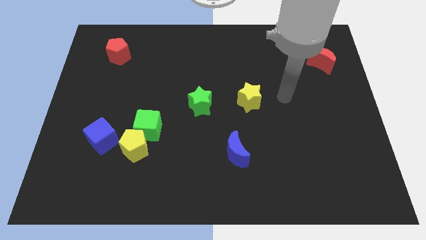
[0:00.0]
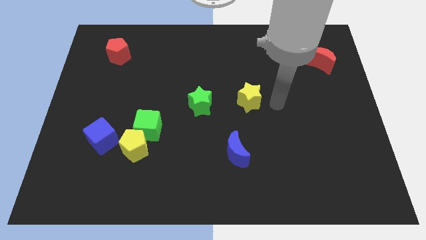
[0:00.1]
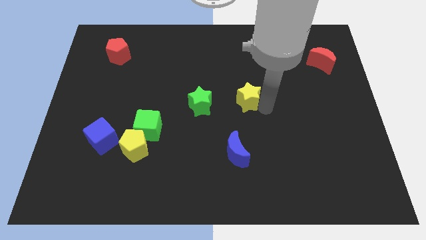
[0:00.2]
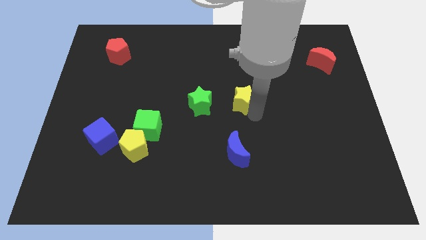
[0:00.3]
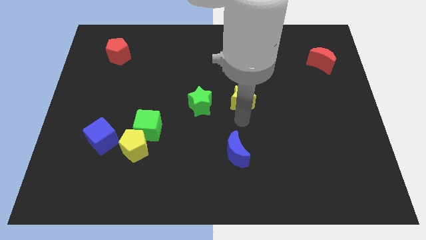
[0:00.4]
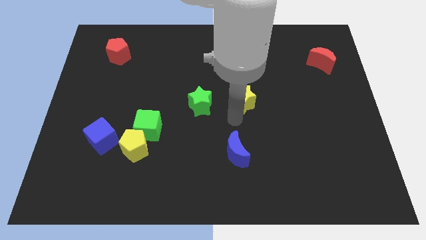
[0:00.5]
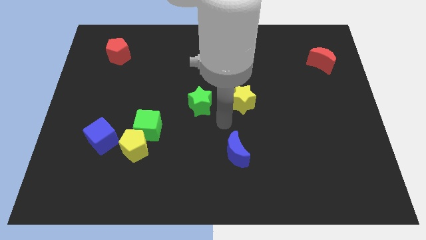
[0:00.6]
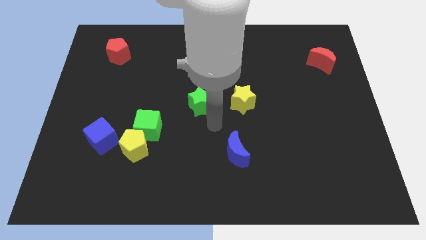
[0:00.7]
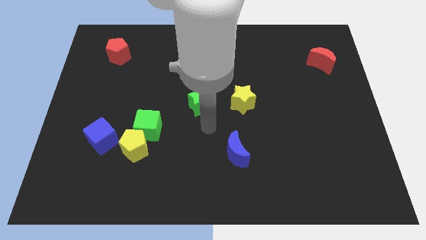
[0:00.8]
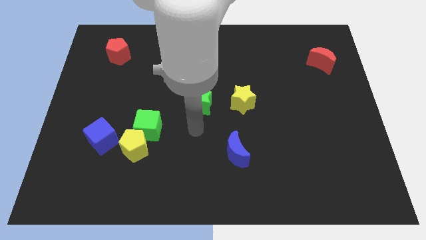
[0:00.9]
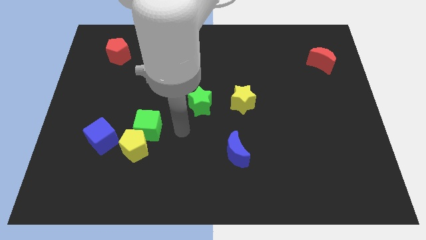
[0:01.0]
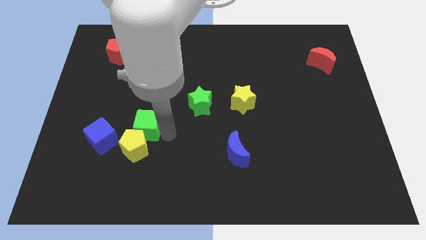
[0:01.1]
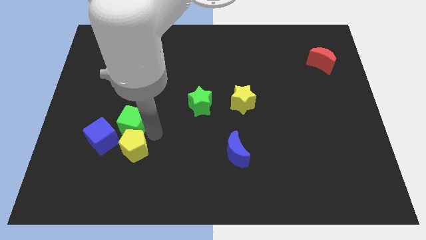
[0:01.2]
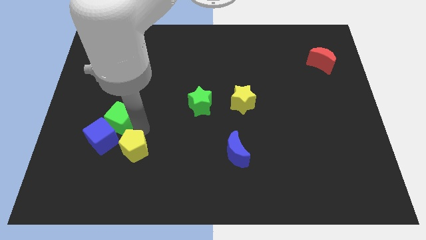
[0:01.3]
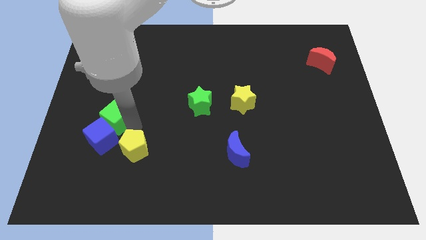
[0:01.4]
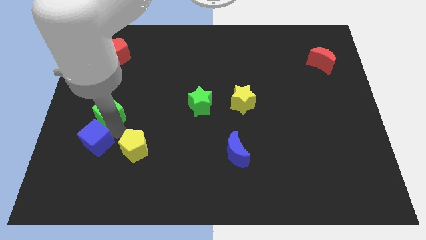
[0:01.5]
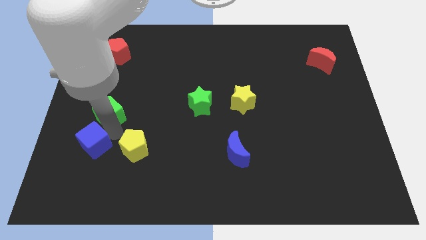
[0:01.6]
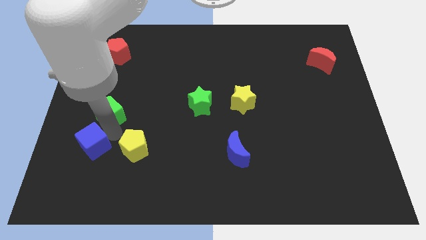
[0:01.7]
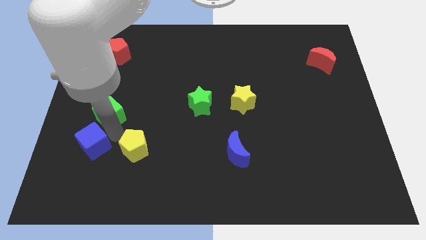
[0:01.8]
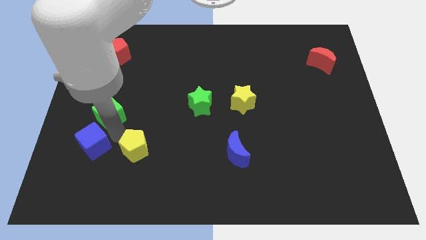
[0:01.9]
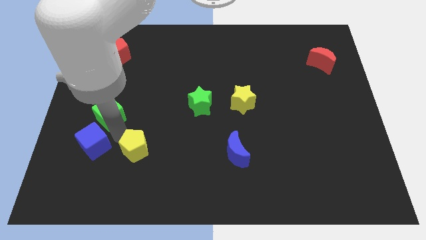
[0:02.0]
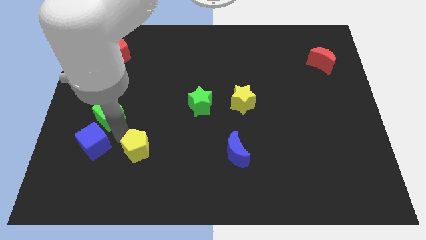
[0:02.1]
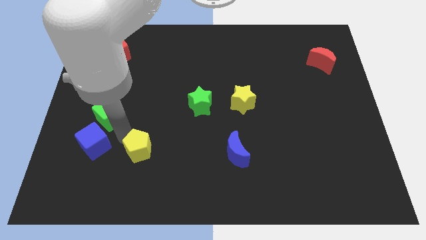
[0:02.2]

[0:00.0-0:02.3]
move the yellow pentagon away from the green cube and blue cube

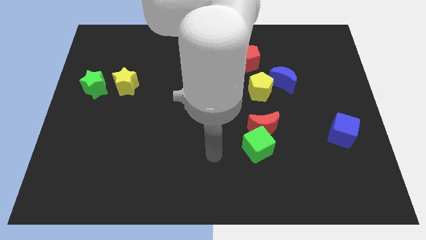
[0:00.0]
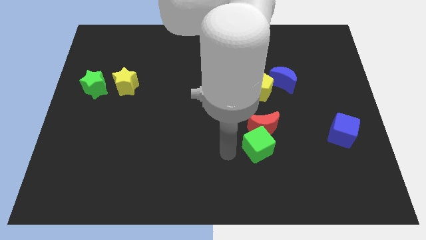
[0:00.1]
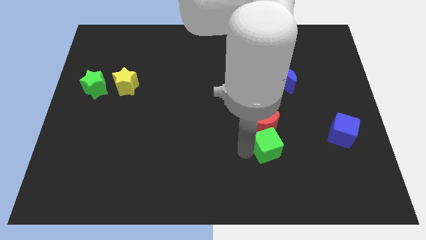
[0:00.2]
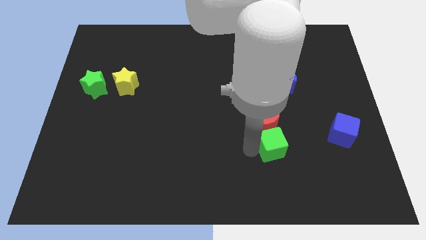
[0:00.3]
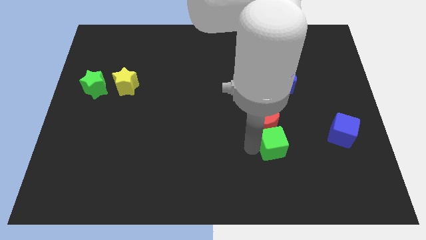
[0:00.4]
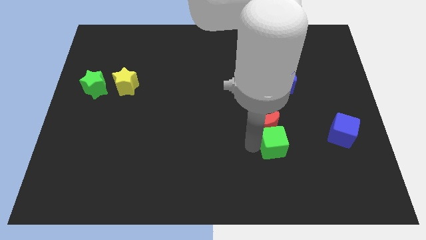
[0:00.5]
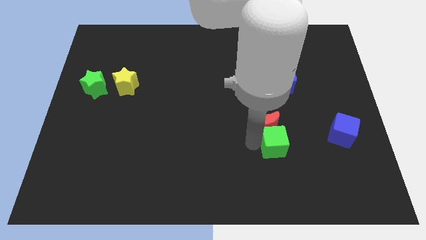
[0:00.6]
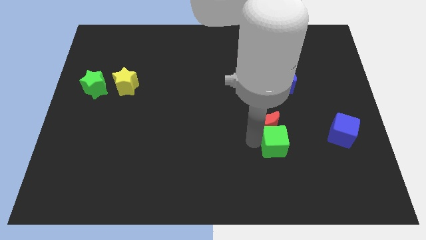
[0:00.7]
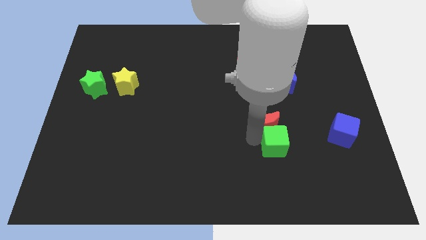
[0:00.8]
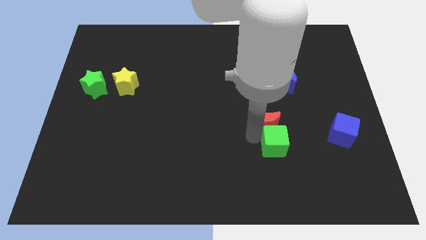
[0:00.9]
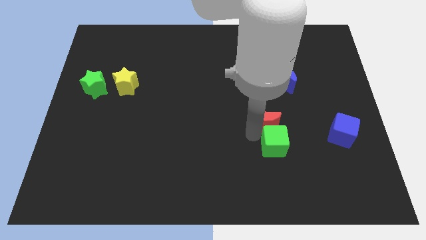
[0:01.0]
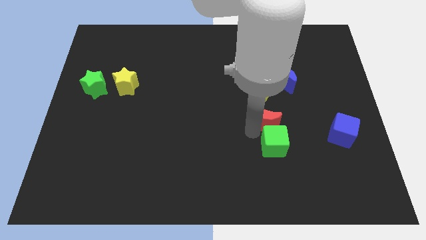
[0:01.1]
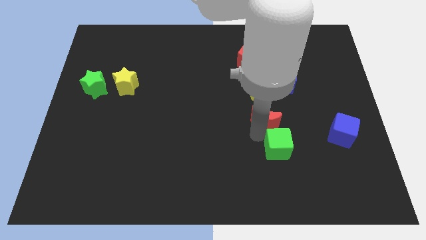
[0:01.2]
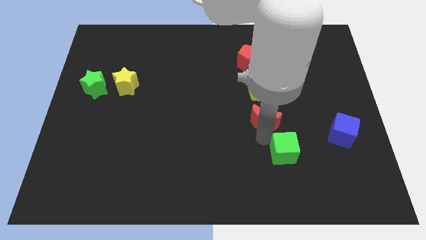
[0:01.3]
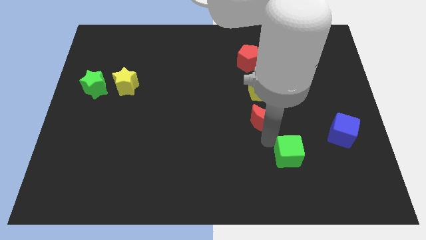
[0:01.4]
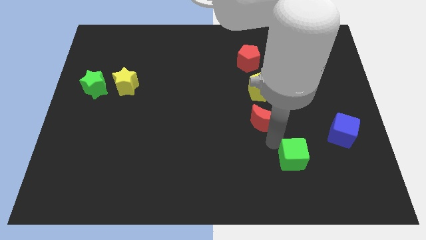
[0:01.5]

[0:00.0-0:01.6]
pull the red moon apart from the green cube

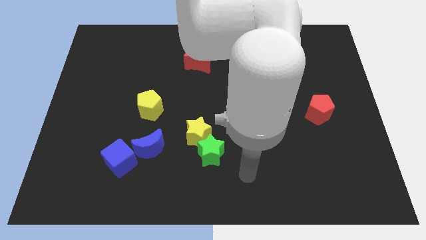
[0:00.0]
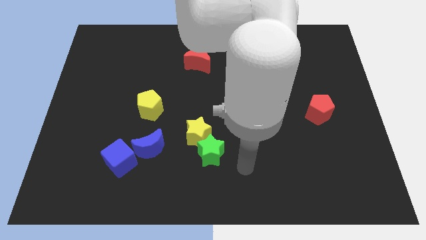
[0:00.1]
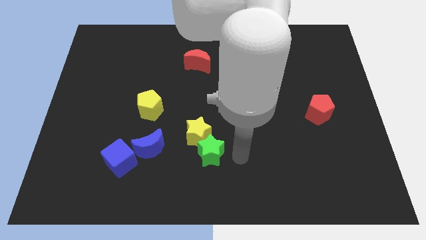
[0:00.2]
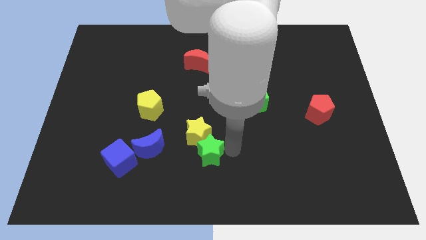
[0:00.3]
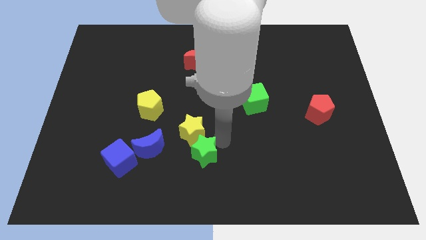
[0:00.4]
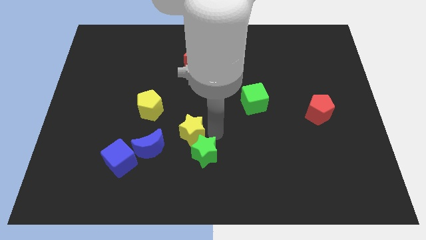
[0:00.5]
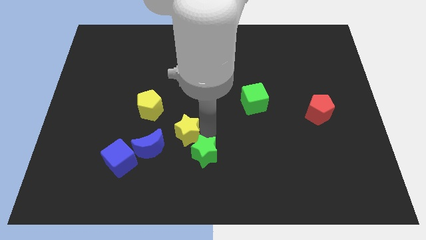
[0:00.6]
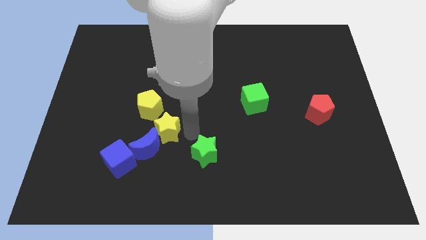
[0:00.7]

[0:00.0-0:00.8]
move the green star away from the yellow star

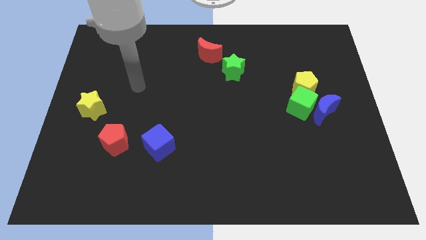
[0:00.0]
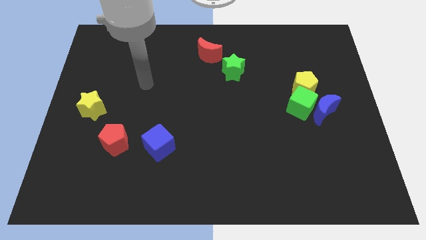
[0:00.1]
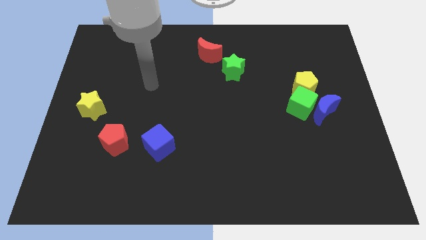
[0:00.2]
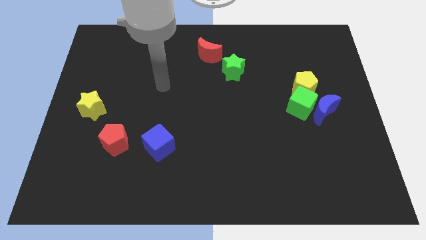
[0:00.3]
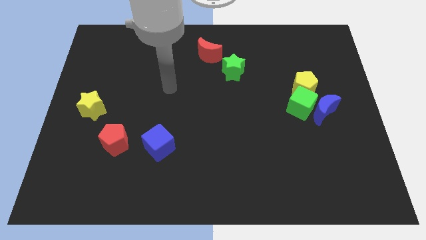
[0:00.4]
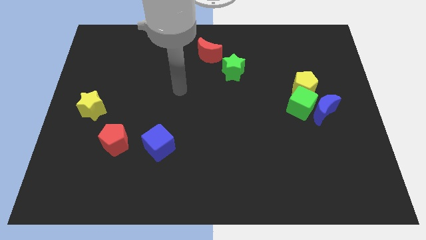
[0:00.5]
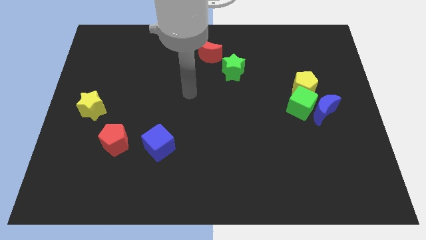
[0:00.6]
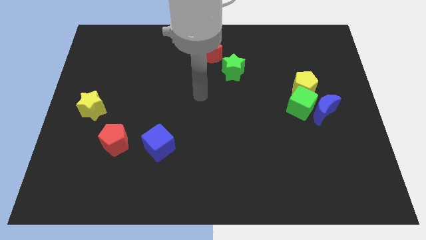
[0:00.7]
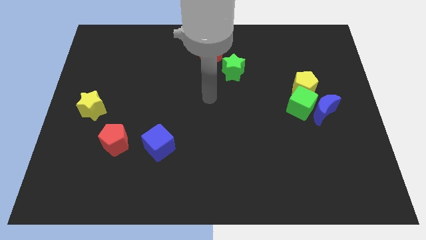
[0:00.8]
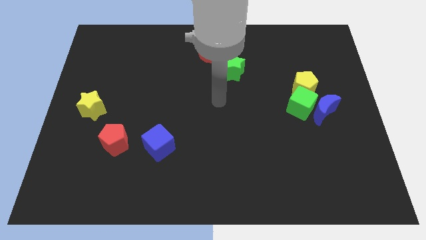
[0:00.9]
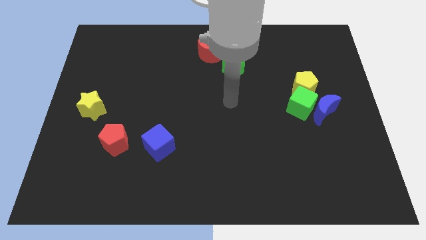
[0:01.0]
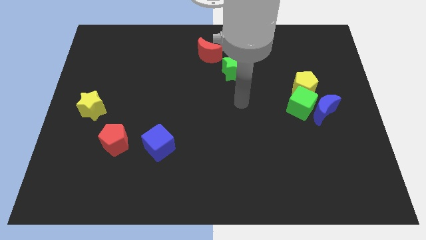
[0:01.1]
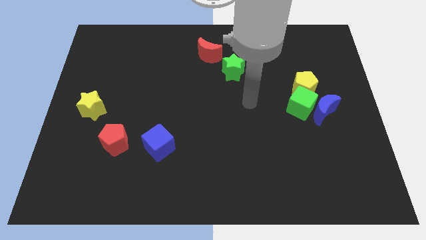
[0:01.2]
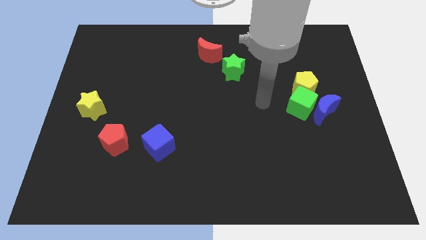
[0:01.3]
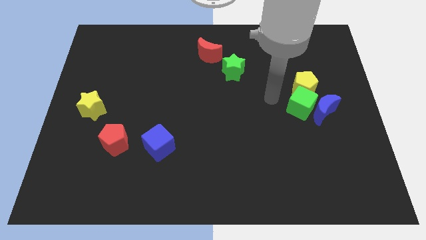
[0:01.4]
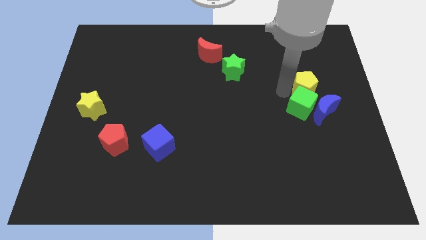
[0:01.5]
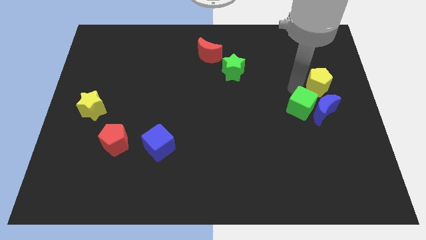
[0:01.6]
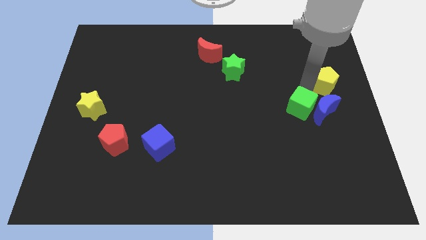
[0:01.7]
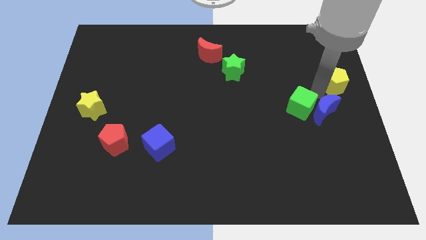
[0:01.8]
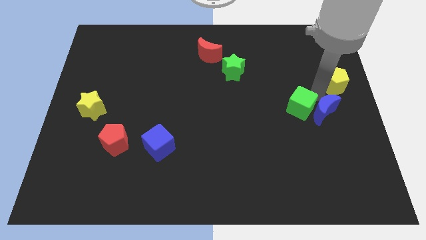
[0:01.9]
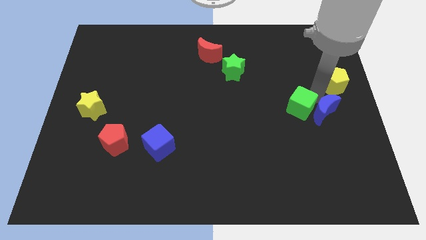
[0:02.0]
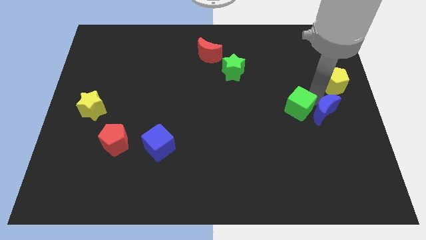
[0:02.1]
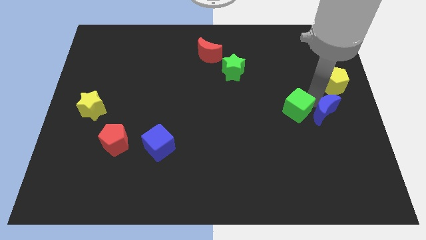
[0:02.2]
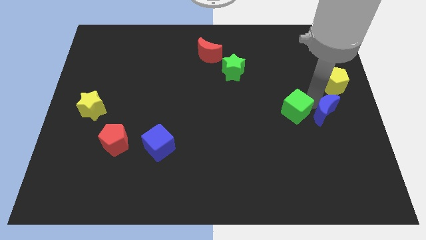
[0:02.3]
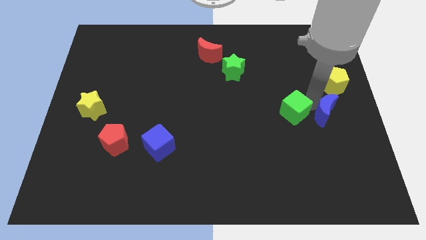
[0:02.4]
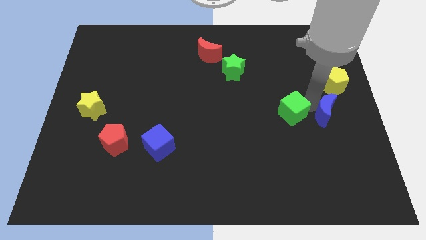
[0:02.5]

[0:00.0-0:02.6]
separate the green cube from the blue moon and yellow pentagon

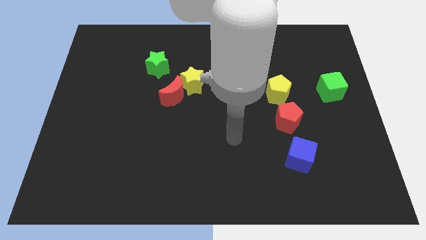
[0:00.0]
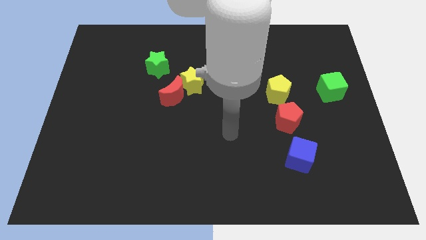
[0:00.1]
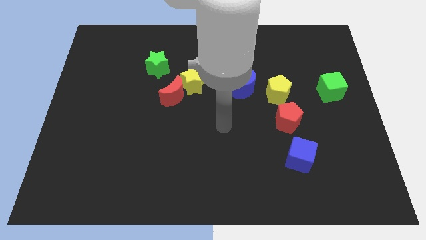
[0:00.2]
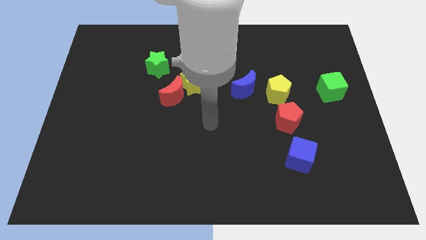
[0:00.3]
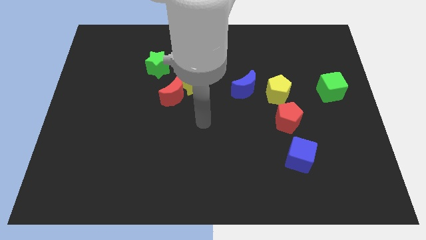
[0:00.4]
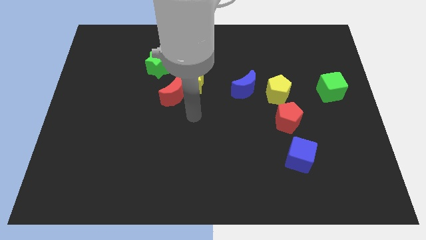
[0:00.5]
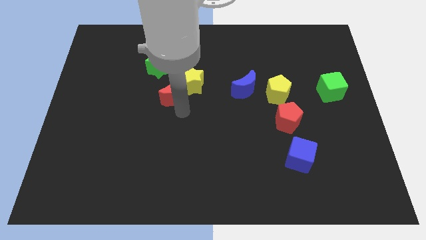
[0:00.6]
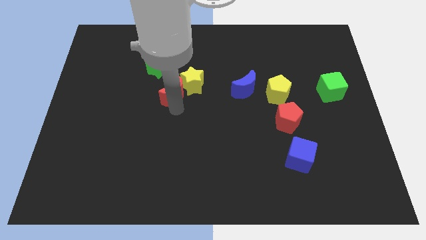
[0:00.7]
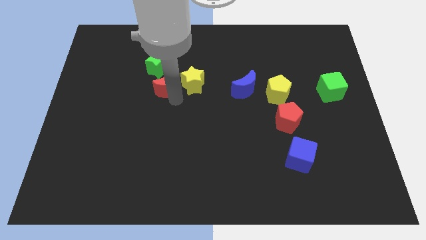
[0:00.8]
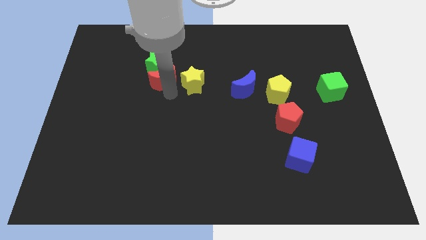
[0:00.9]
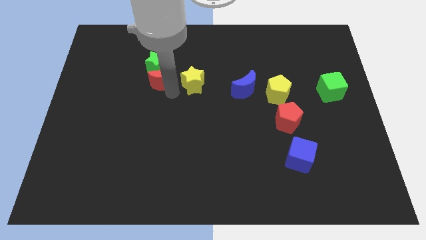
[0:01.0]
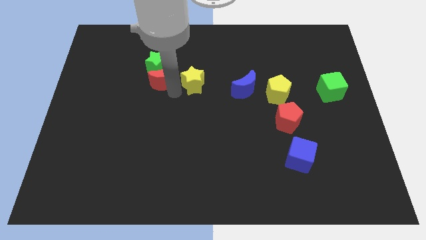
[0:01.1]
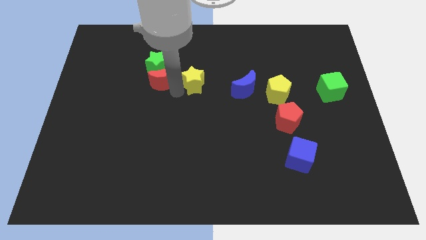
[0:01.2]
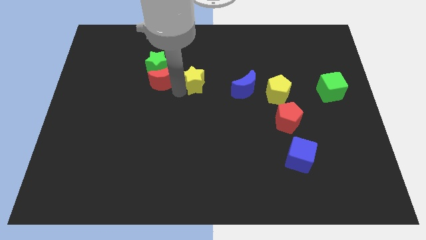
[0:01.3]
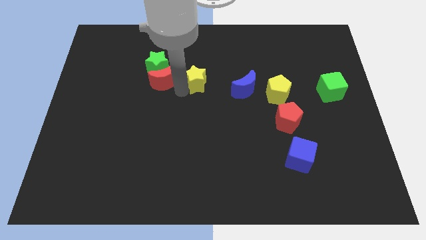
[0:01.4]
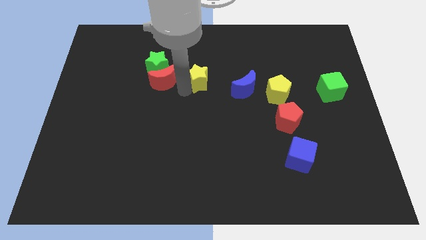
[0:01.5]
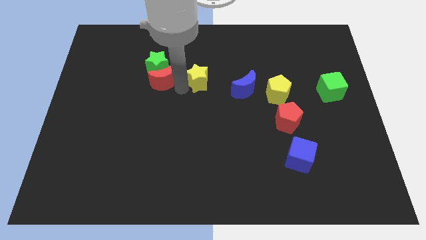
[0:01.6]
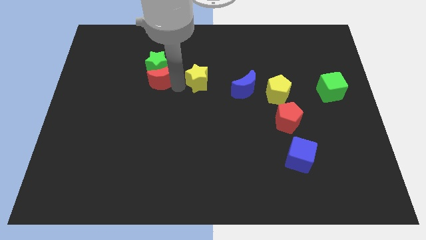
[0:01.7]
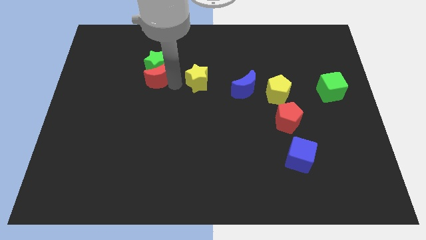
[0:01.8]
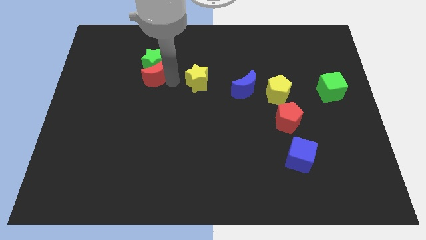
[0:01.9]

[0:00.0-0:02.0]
pull the yellow star apart from the red moon
